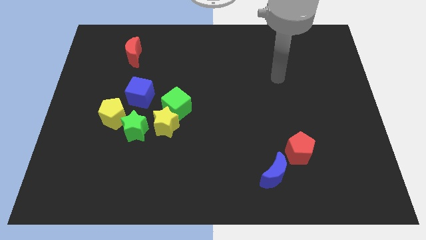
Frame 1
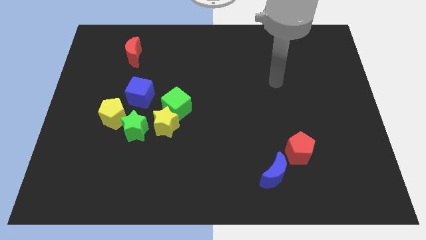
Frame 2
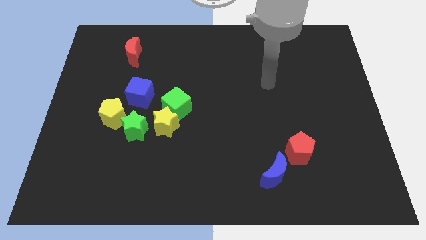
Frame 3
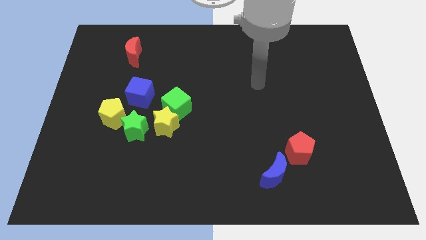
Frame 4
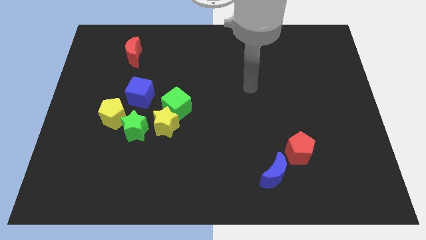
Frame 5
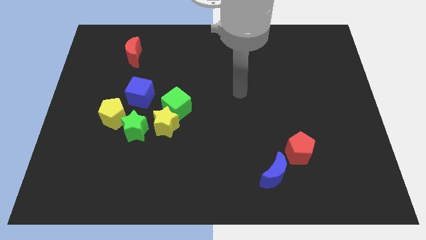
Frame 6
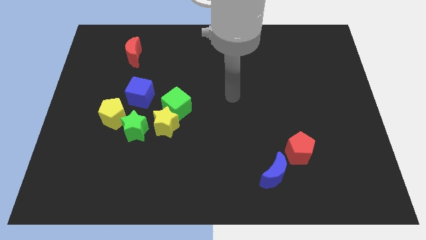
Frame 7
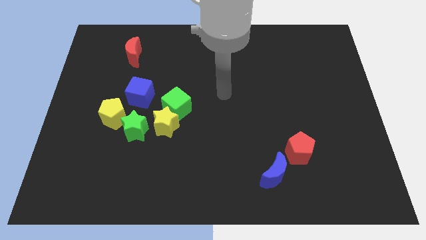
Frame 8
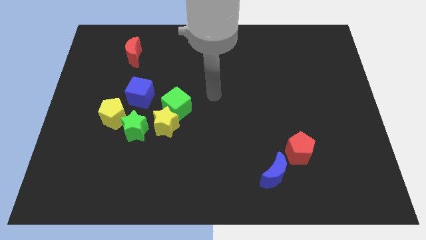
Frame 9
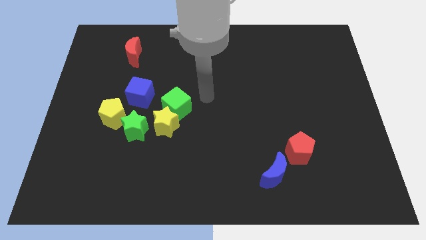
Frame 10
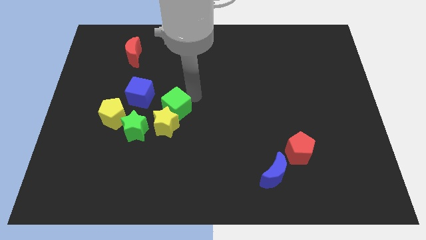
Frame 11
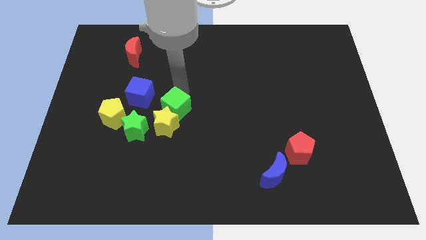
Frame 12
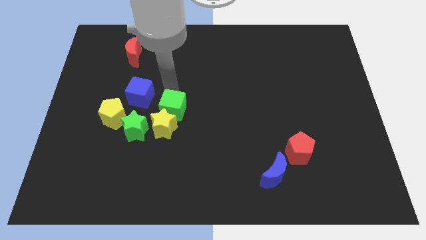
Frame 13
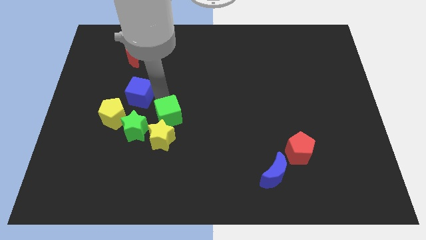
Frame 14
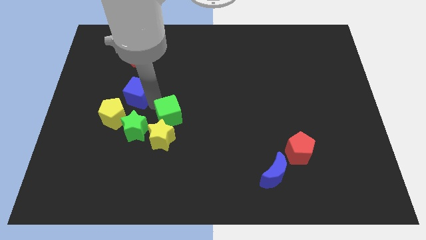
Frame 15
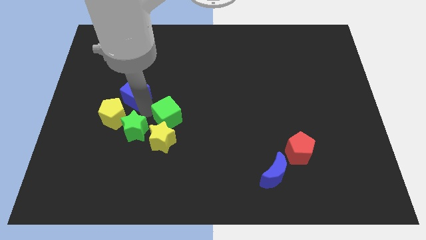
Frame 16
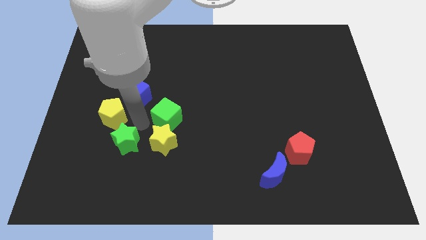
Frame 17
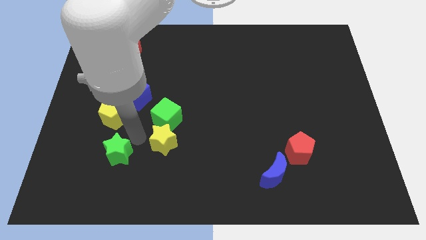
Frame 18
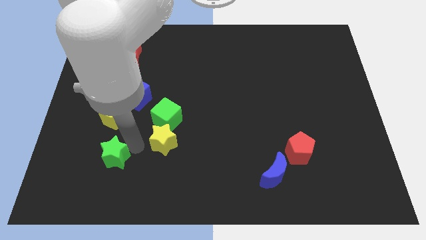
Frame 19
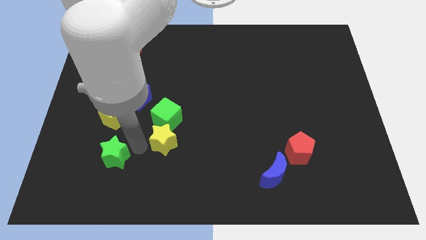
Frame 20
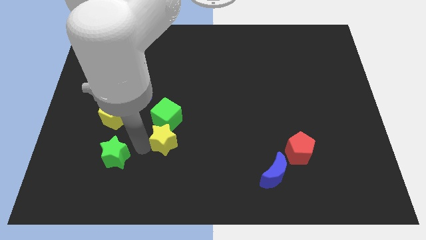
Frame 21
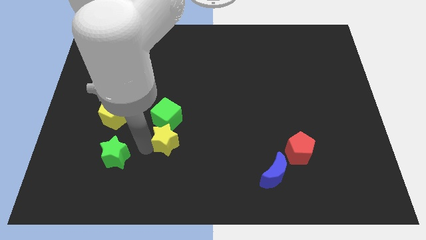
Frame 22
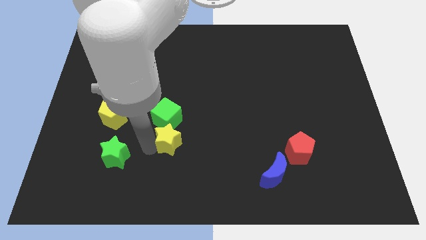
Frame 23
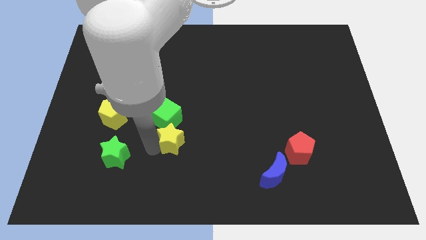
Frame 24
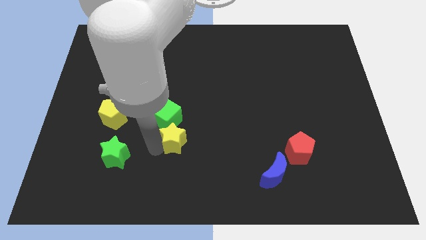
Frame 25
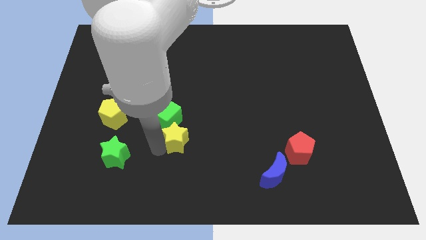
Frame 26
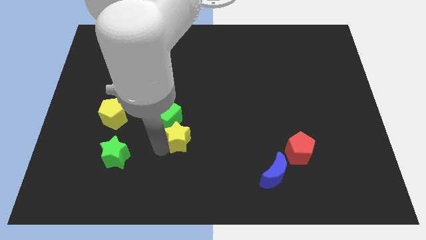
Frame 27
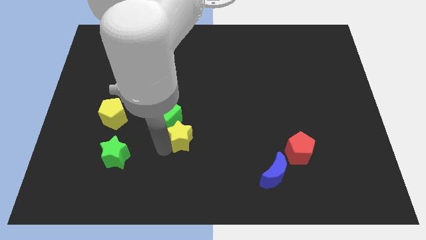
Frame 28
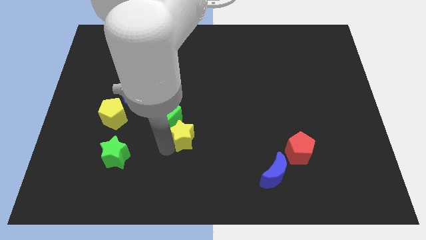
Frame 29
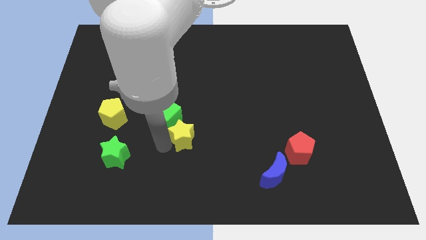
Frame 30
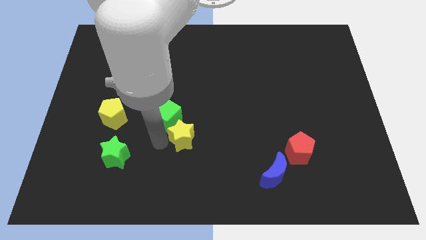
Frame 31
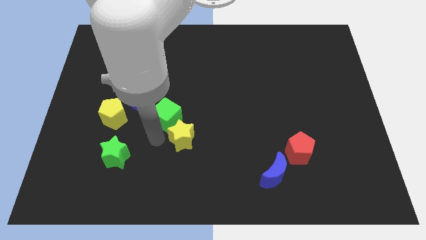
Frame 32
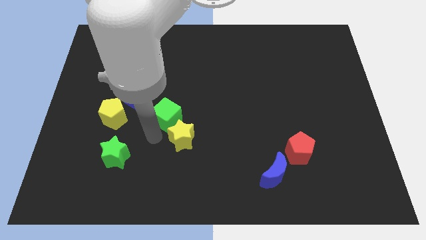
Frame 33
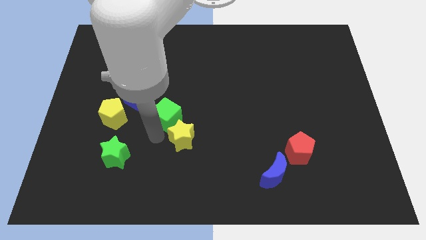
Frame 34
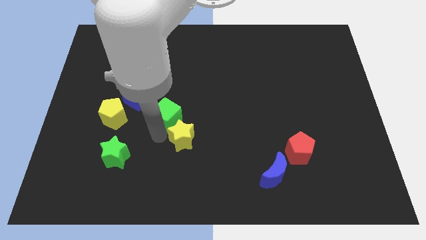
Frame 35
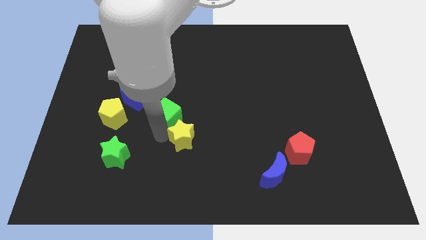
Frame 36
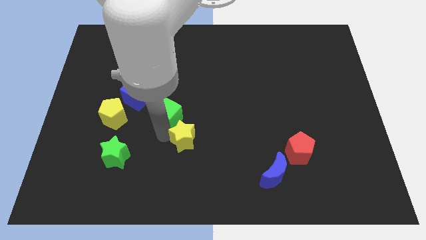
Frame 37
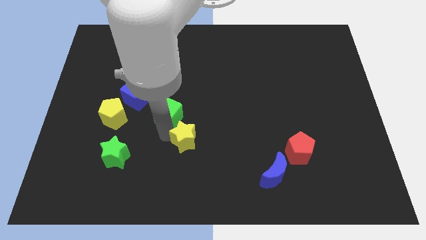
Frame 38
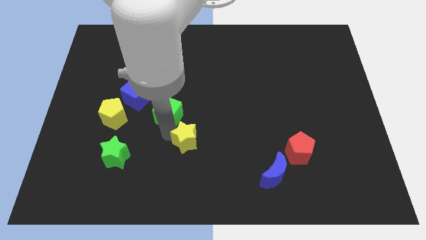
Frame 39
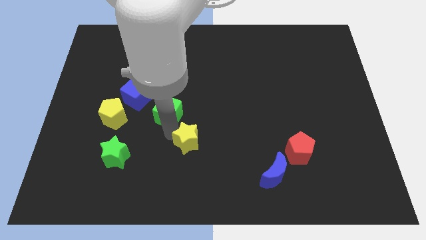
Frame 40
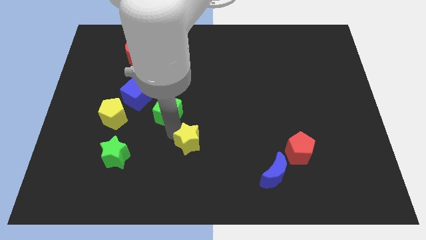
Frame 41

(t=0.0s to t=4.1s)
move the yellow star away from the green cube and green star

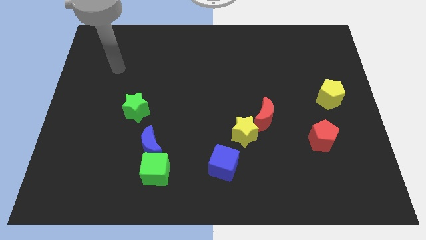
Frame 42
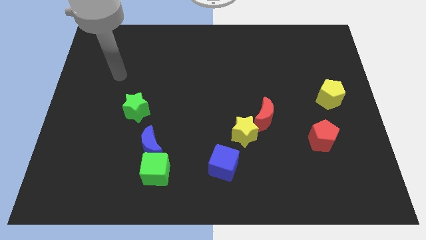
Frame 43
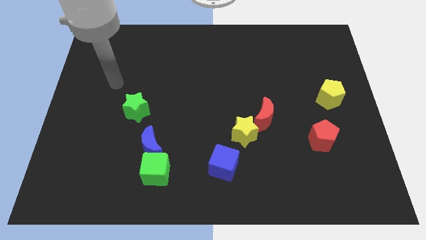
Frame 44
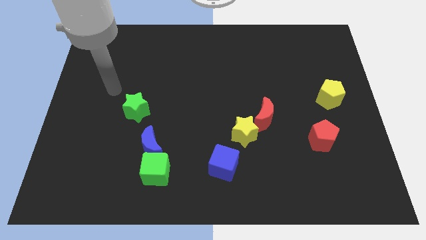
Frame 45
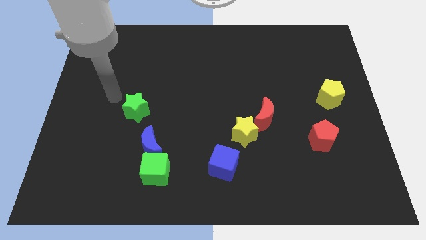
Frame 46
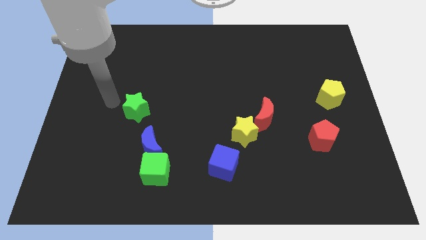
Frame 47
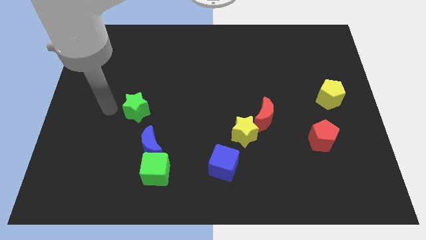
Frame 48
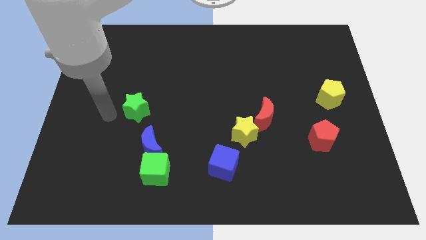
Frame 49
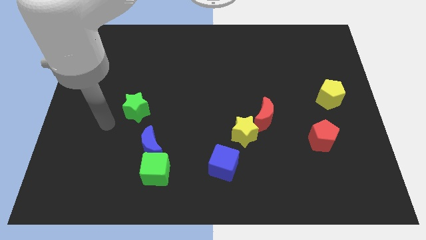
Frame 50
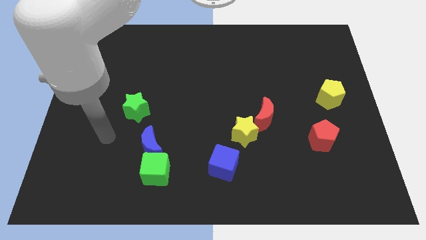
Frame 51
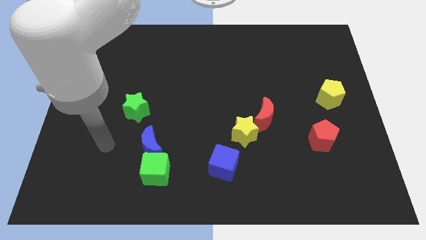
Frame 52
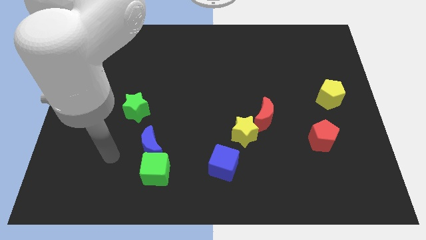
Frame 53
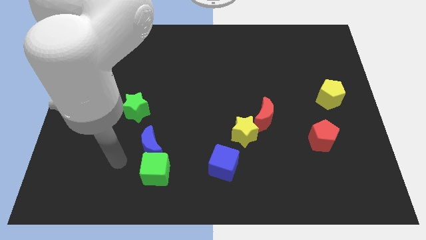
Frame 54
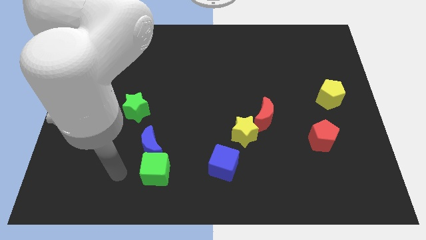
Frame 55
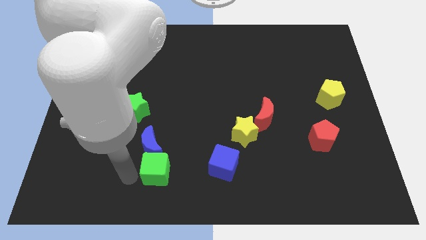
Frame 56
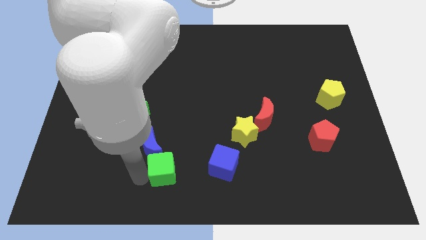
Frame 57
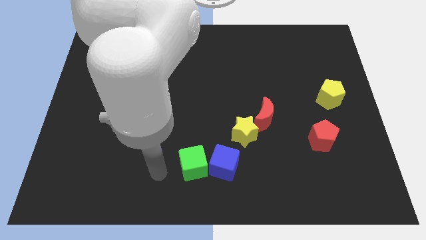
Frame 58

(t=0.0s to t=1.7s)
separate the blue moon from the green cube

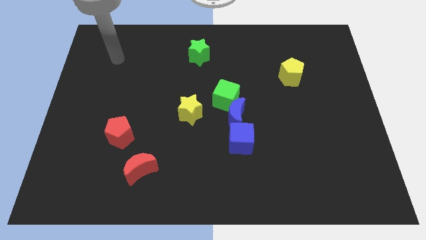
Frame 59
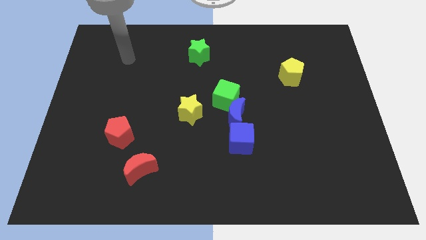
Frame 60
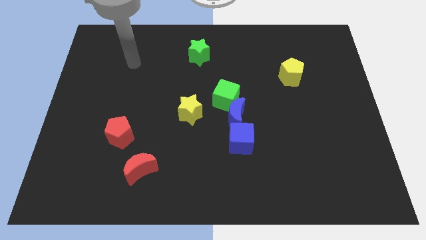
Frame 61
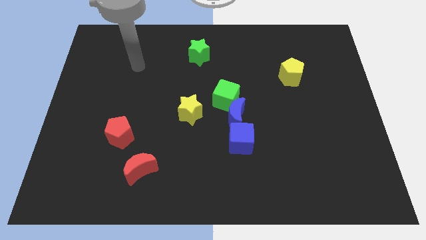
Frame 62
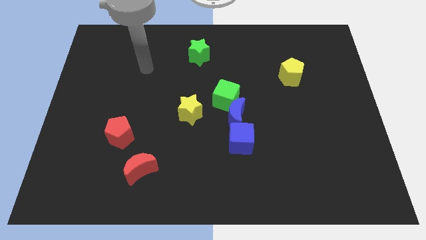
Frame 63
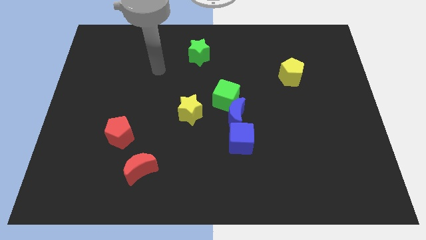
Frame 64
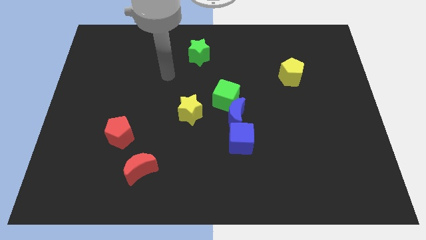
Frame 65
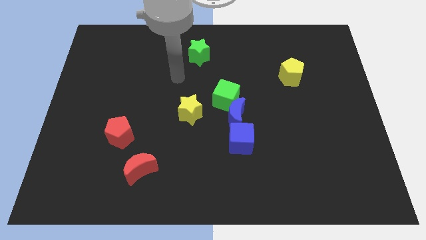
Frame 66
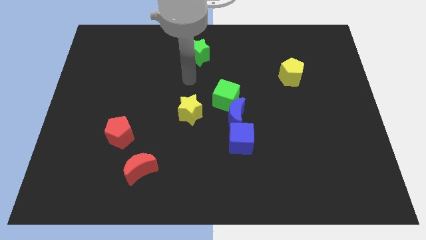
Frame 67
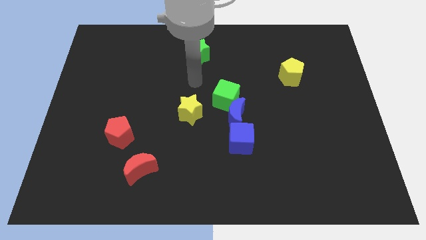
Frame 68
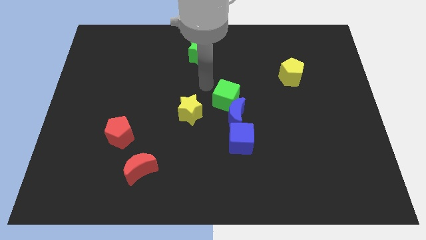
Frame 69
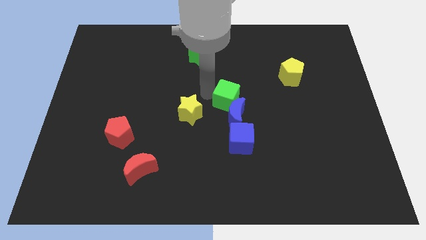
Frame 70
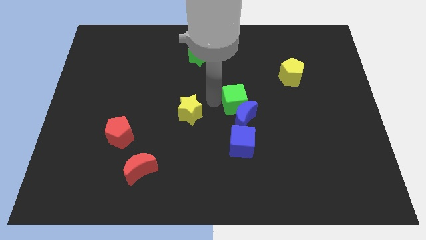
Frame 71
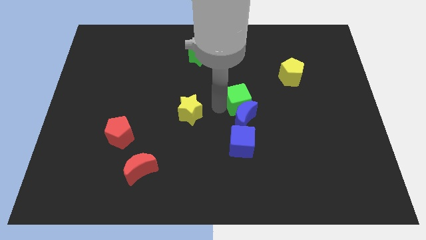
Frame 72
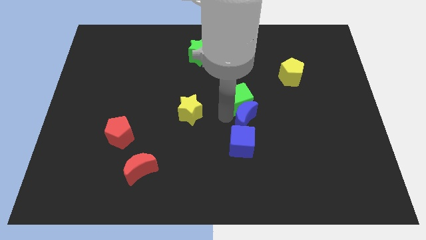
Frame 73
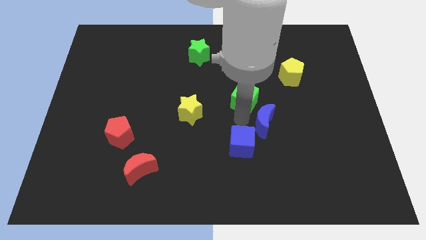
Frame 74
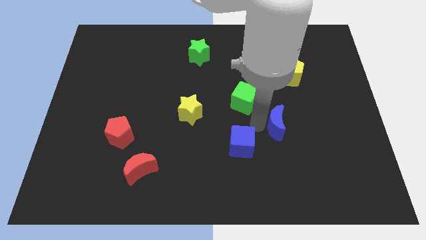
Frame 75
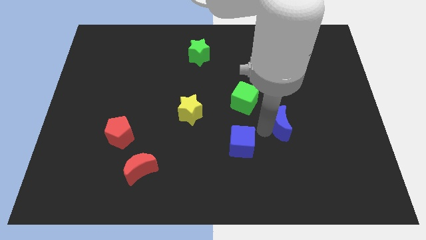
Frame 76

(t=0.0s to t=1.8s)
pull the blue cube apart from the blue moon

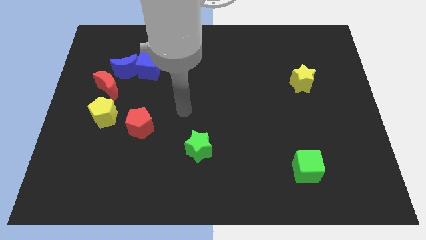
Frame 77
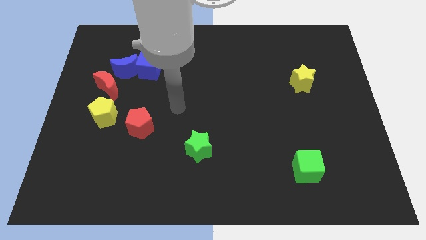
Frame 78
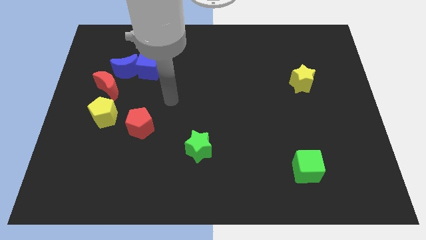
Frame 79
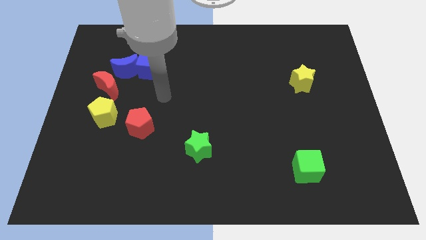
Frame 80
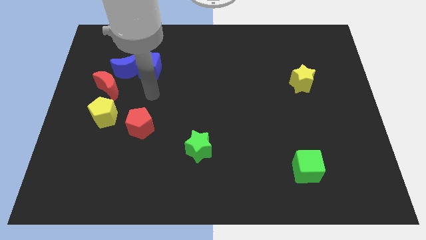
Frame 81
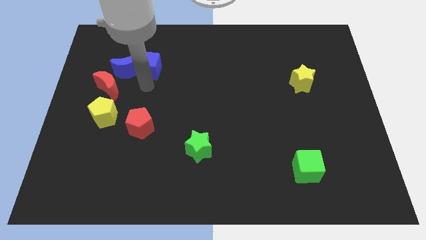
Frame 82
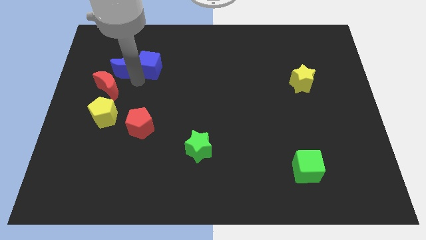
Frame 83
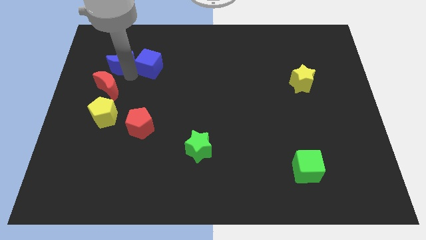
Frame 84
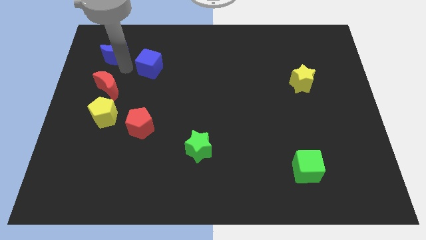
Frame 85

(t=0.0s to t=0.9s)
separate the blue cube from the blue moon
